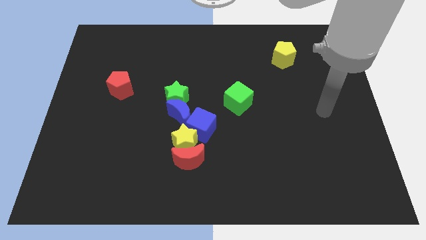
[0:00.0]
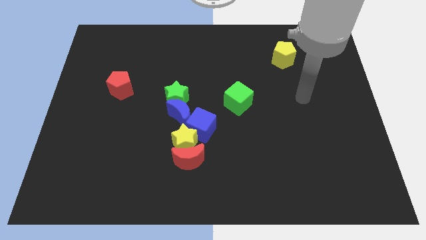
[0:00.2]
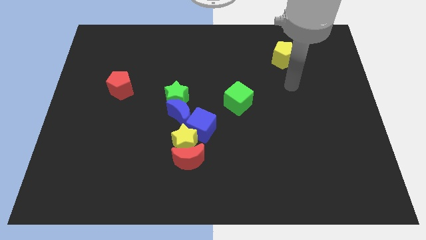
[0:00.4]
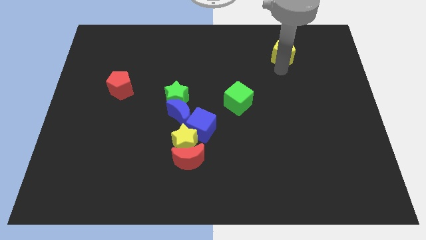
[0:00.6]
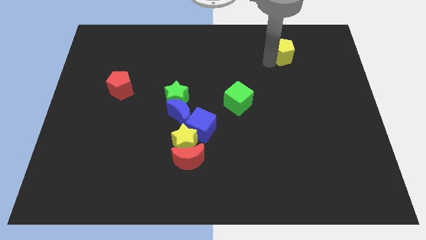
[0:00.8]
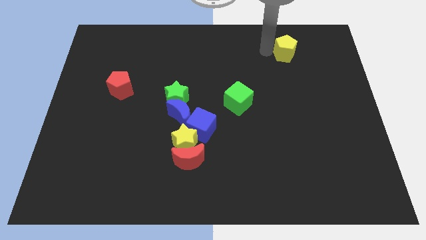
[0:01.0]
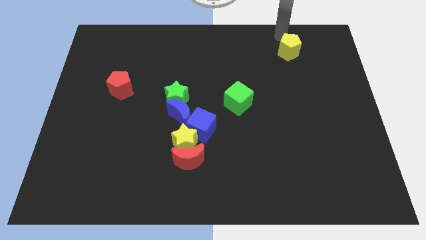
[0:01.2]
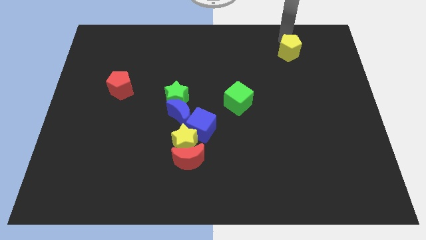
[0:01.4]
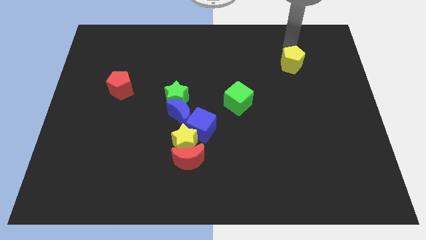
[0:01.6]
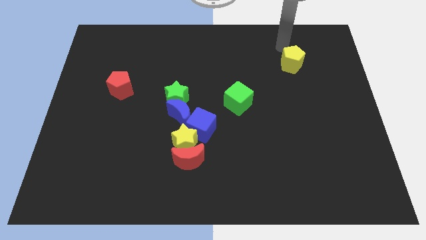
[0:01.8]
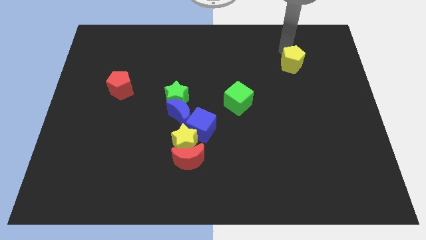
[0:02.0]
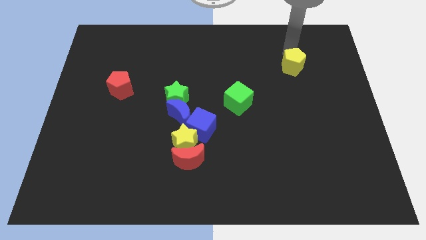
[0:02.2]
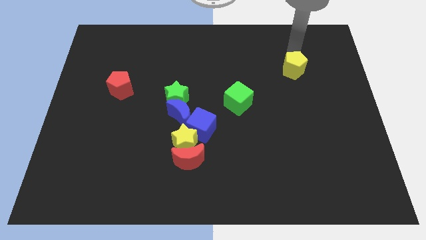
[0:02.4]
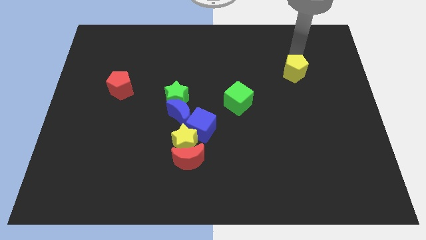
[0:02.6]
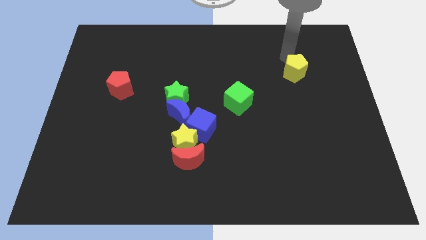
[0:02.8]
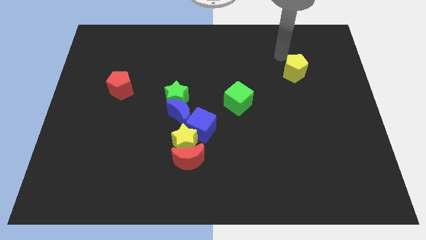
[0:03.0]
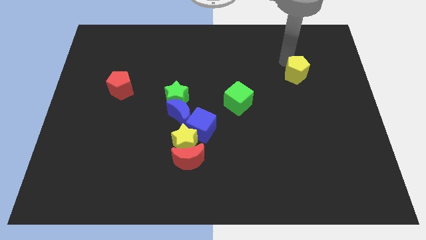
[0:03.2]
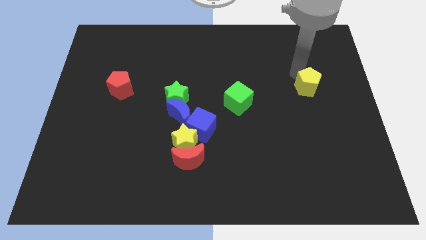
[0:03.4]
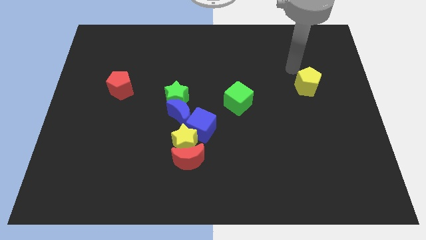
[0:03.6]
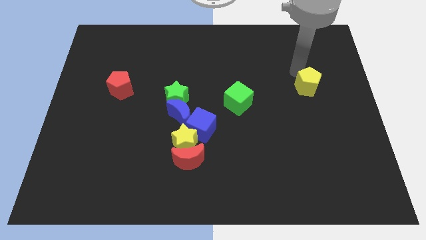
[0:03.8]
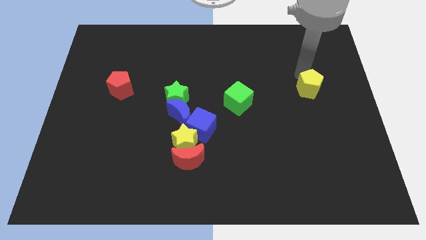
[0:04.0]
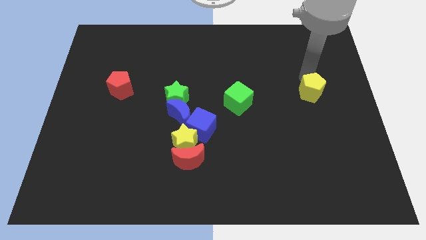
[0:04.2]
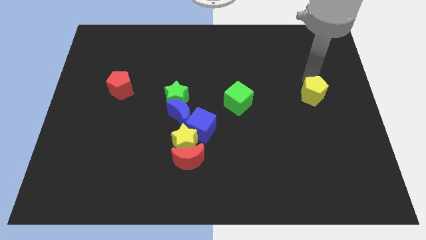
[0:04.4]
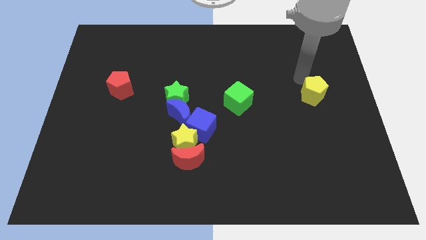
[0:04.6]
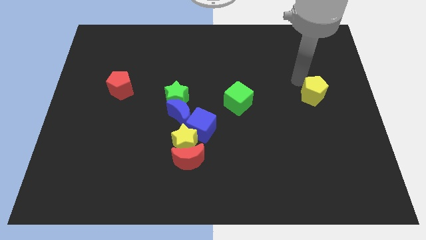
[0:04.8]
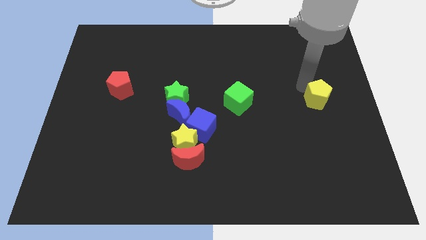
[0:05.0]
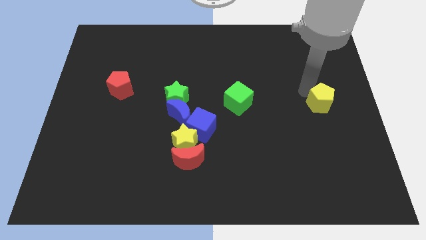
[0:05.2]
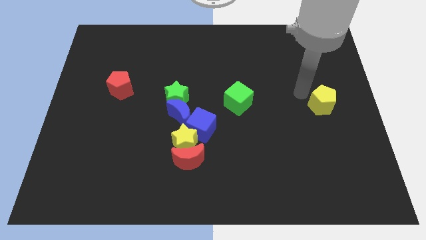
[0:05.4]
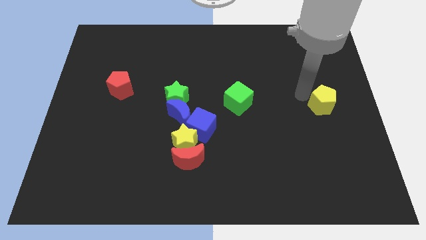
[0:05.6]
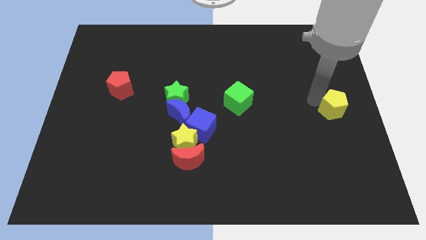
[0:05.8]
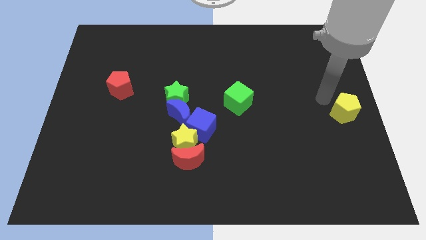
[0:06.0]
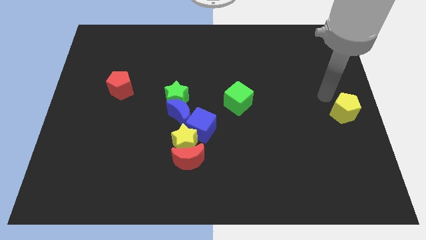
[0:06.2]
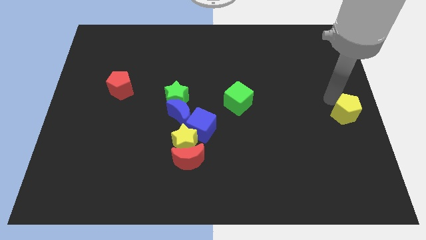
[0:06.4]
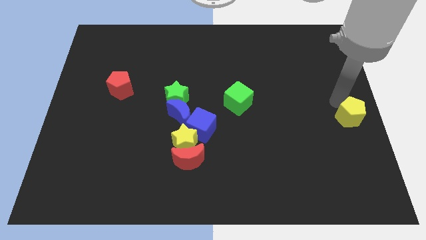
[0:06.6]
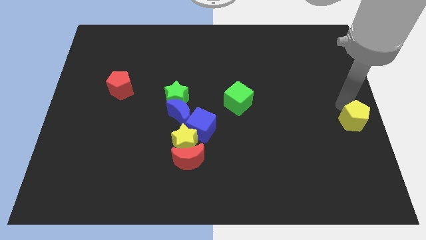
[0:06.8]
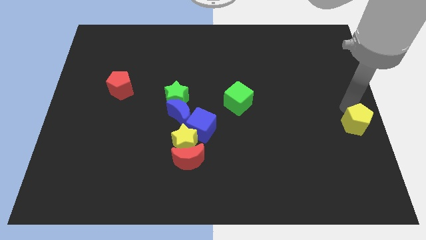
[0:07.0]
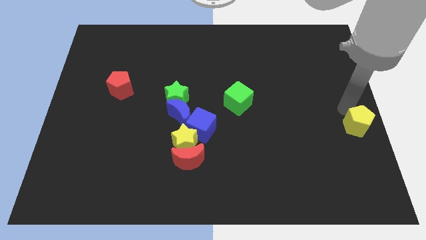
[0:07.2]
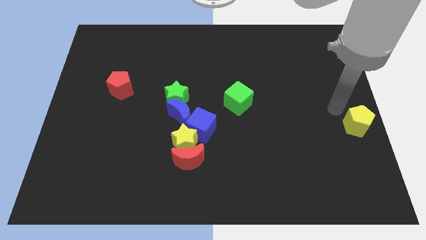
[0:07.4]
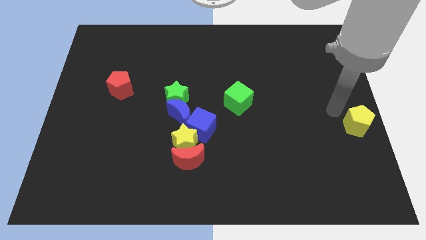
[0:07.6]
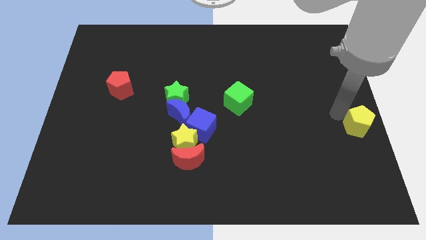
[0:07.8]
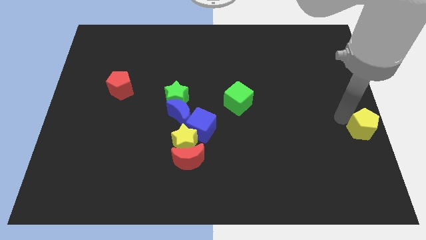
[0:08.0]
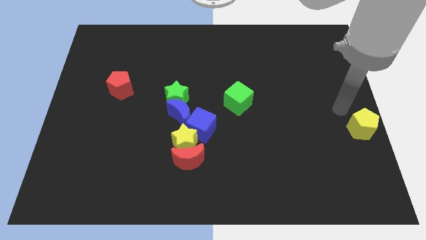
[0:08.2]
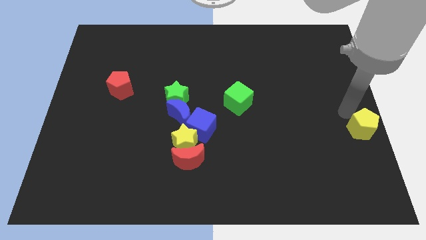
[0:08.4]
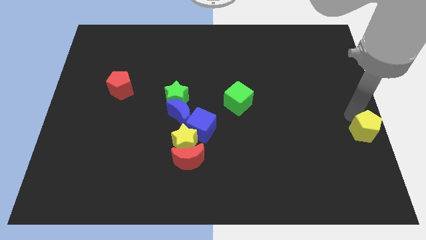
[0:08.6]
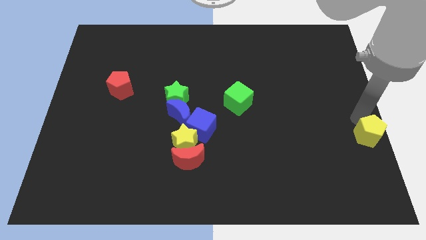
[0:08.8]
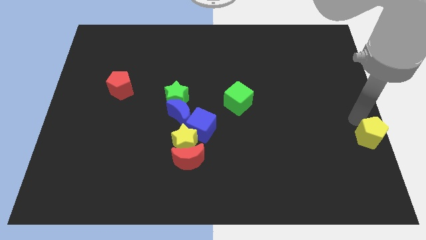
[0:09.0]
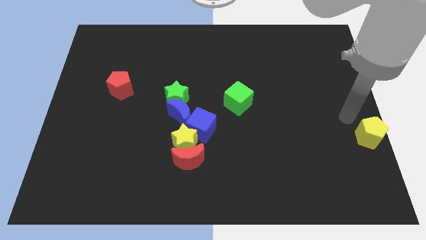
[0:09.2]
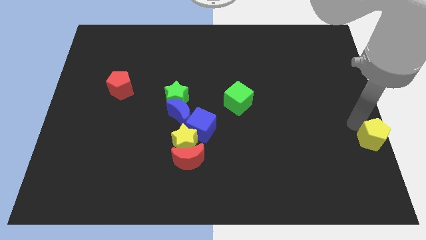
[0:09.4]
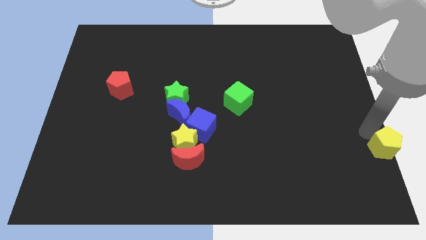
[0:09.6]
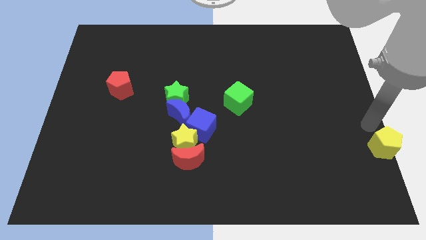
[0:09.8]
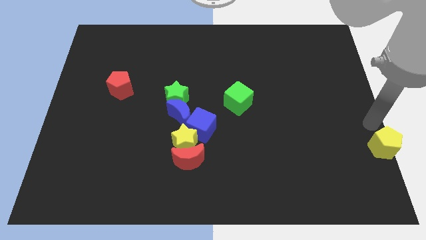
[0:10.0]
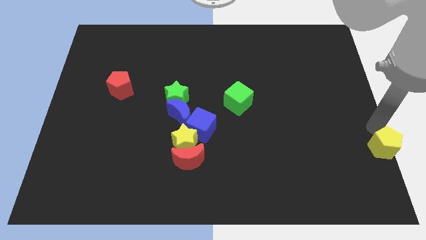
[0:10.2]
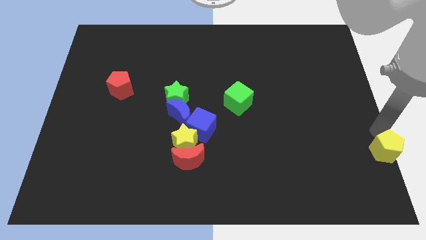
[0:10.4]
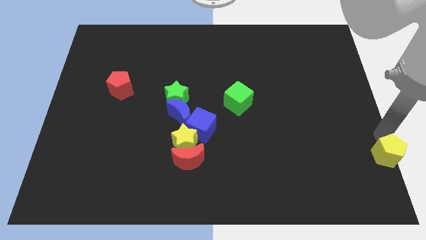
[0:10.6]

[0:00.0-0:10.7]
move the yellow pentagon to the bottom right corner

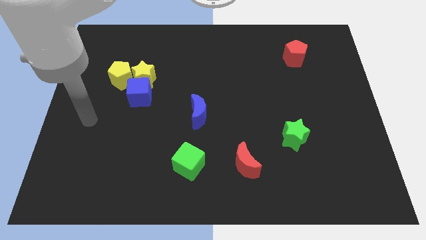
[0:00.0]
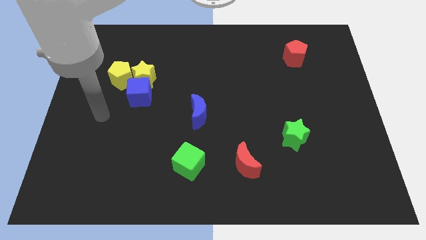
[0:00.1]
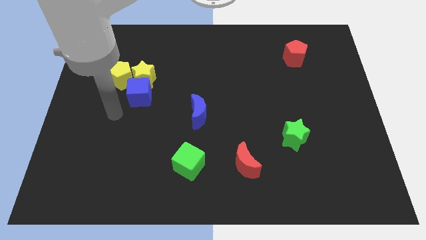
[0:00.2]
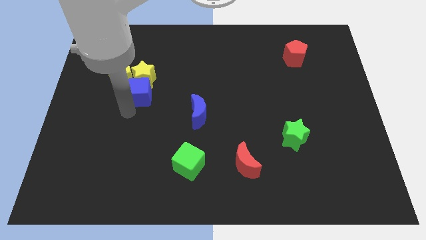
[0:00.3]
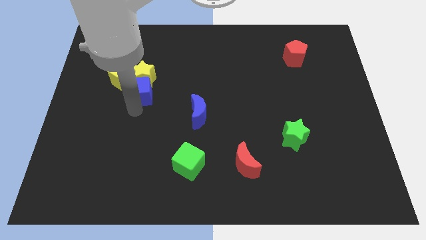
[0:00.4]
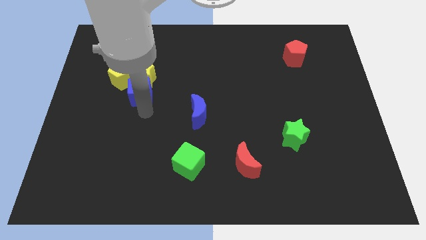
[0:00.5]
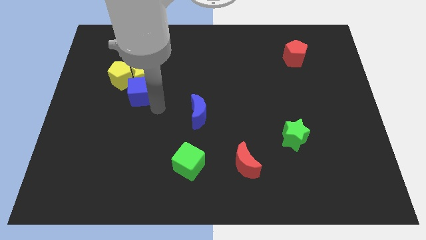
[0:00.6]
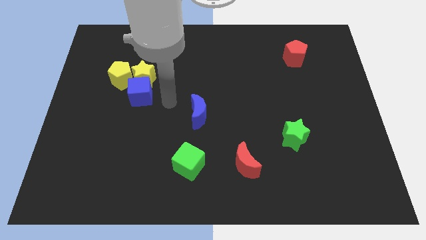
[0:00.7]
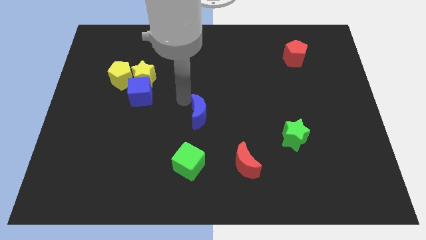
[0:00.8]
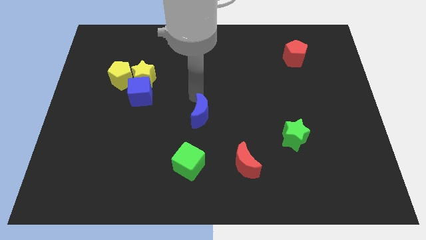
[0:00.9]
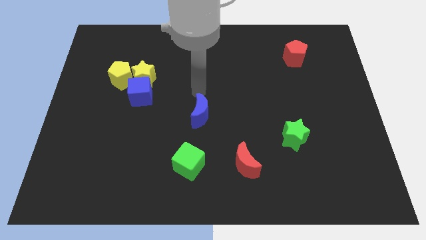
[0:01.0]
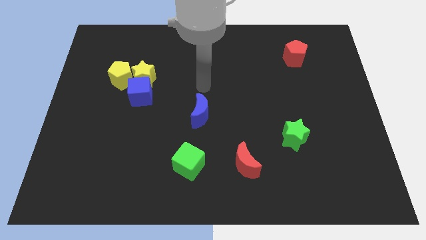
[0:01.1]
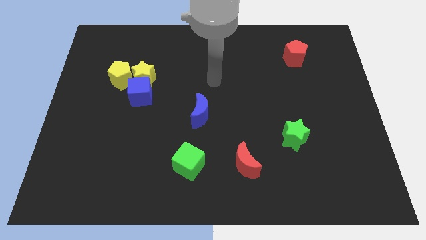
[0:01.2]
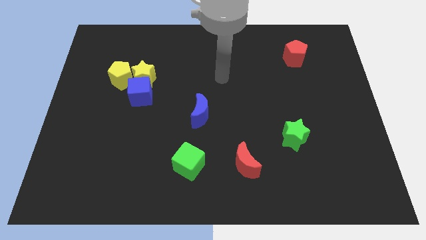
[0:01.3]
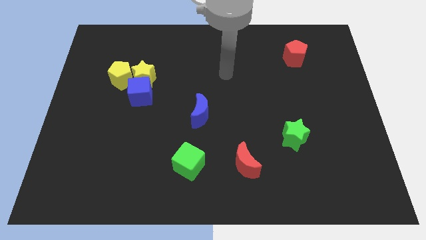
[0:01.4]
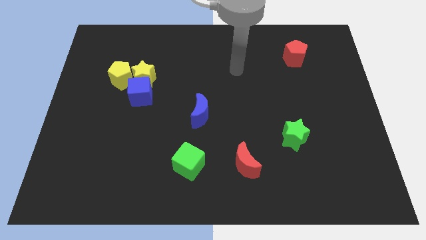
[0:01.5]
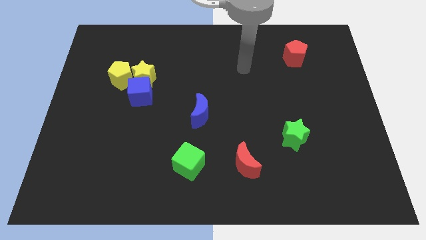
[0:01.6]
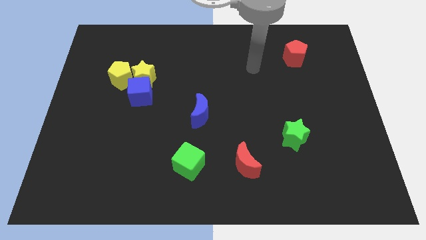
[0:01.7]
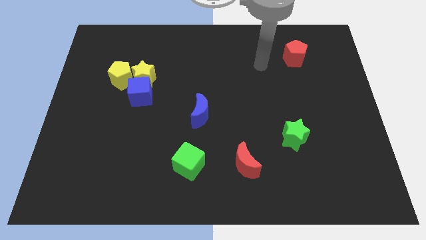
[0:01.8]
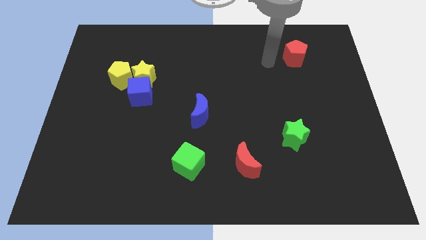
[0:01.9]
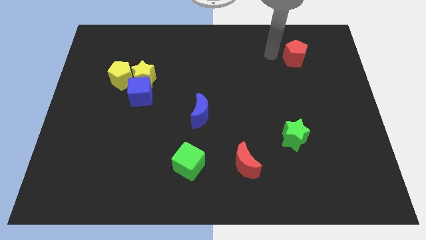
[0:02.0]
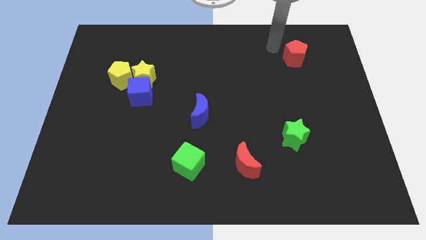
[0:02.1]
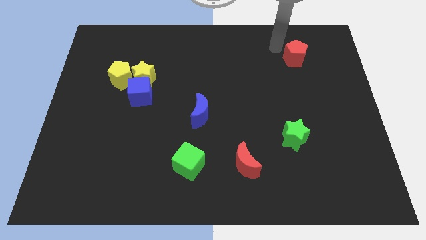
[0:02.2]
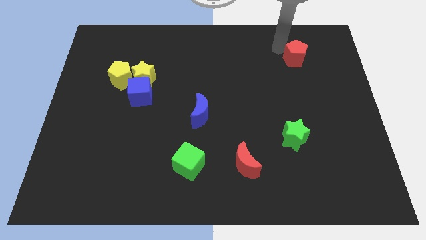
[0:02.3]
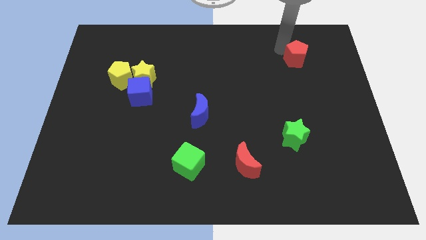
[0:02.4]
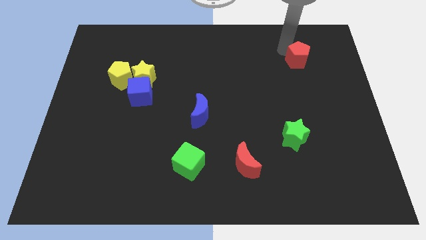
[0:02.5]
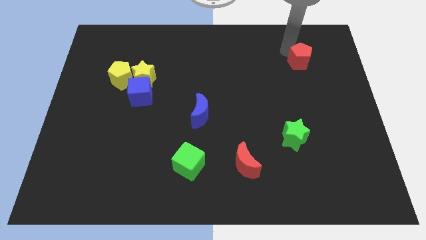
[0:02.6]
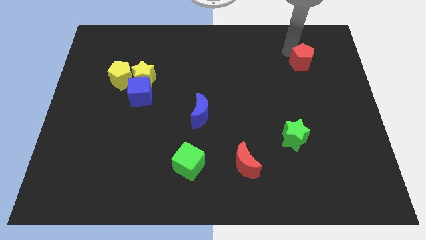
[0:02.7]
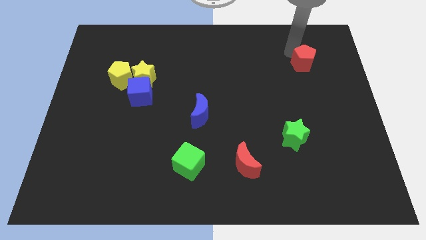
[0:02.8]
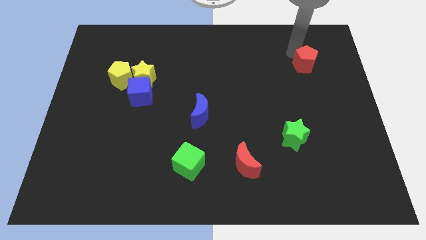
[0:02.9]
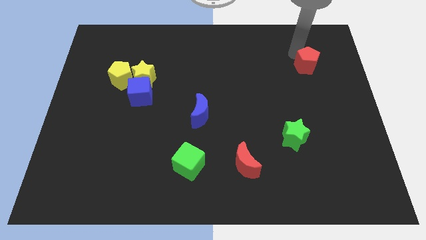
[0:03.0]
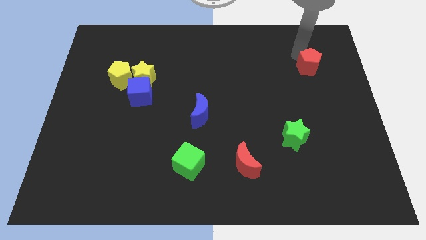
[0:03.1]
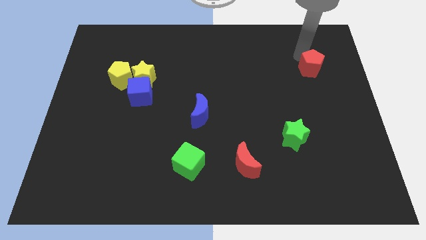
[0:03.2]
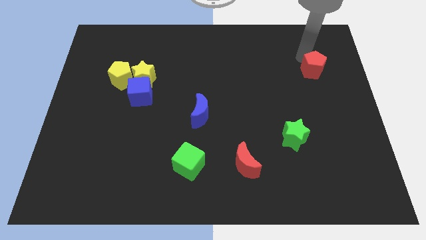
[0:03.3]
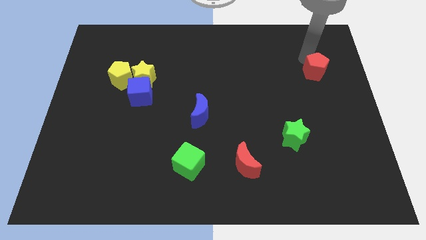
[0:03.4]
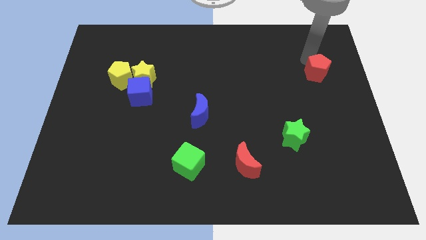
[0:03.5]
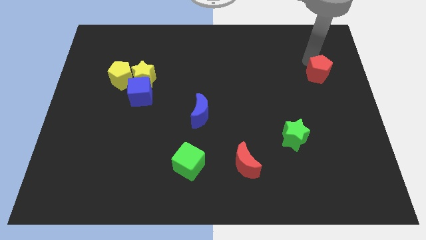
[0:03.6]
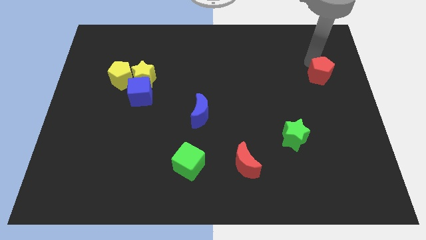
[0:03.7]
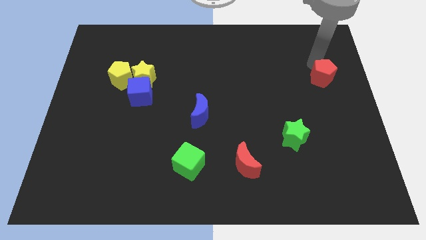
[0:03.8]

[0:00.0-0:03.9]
move the red pentagon to the right side
